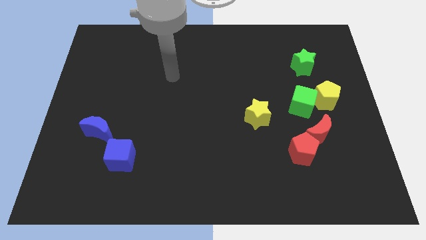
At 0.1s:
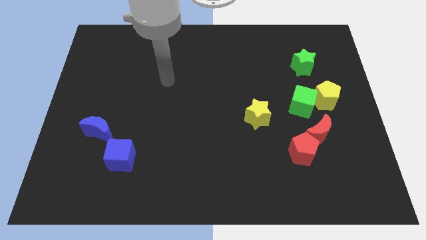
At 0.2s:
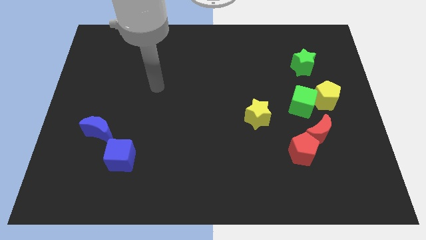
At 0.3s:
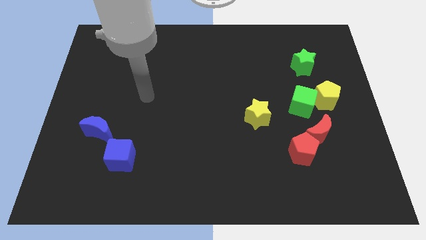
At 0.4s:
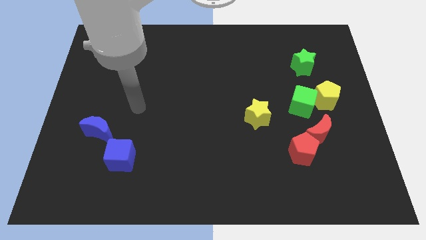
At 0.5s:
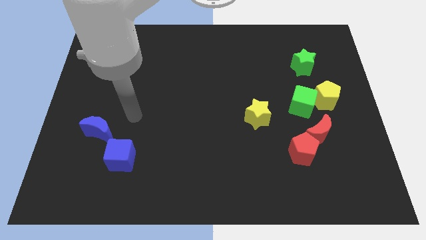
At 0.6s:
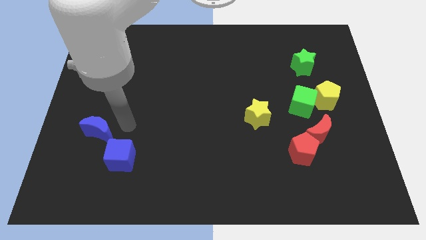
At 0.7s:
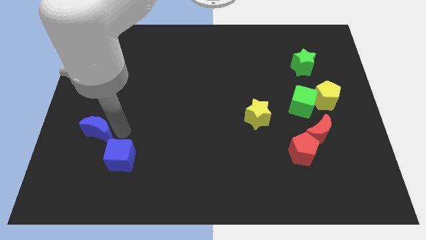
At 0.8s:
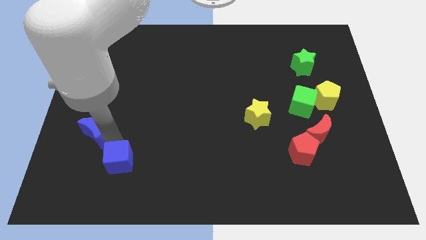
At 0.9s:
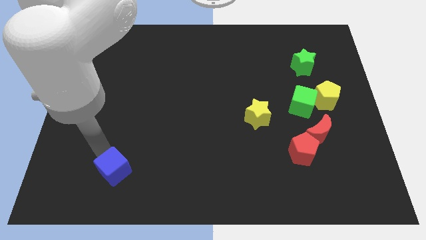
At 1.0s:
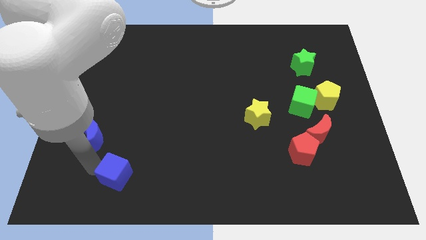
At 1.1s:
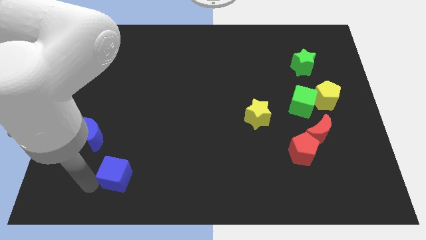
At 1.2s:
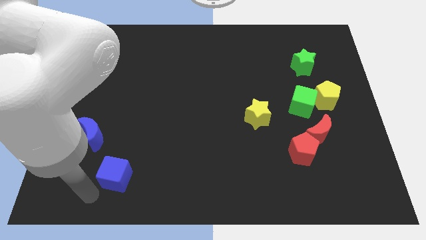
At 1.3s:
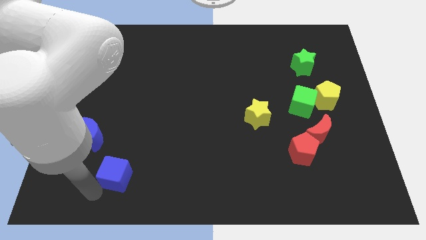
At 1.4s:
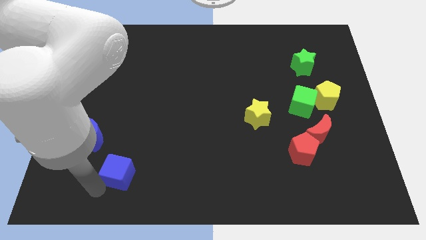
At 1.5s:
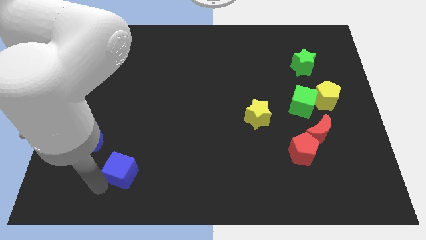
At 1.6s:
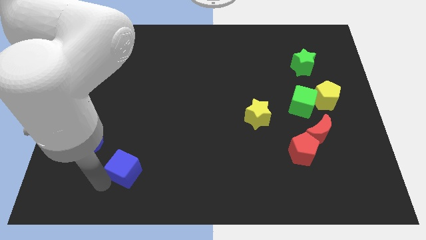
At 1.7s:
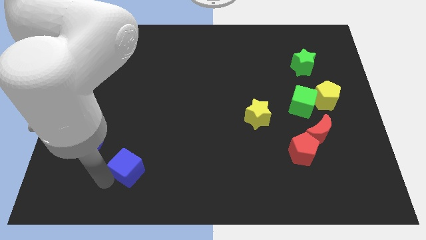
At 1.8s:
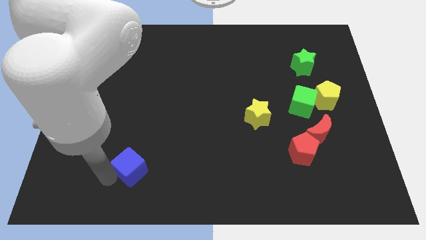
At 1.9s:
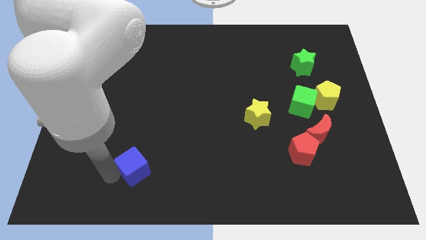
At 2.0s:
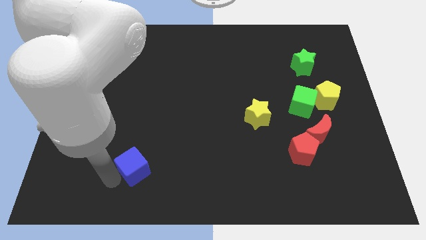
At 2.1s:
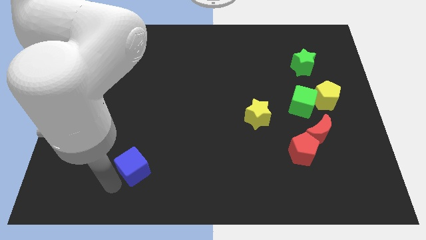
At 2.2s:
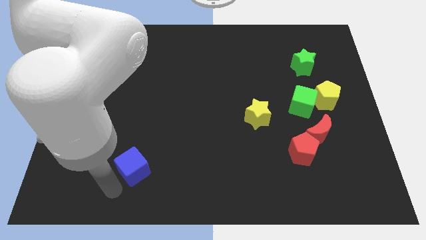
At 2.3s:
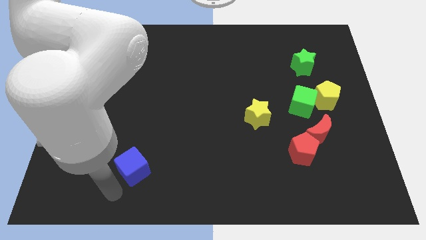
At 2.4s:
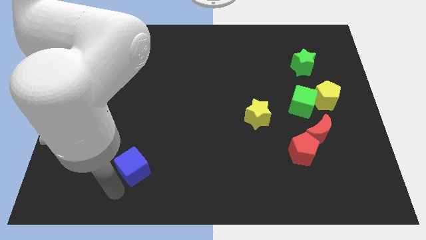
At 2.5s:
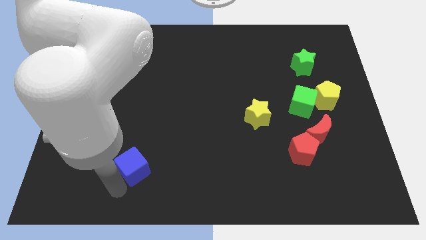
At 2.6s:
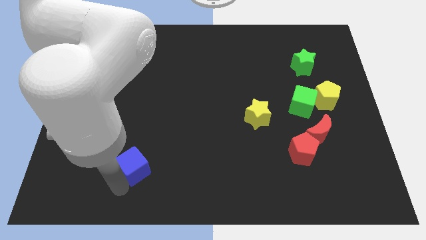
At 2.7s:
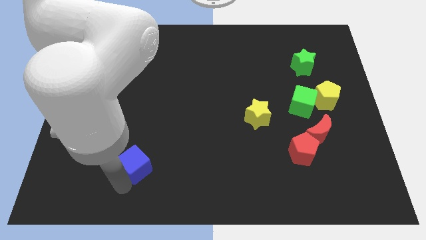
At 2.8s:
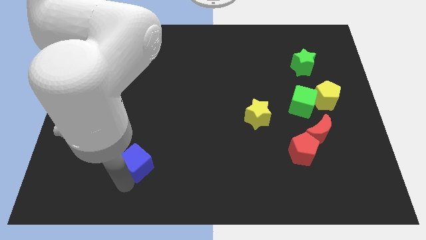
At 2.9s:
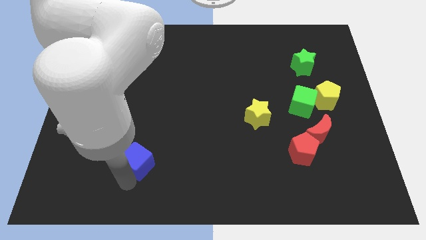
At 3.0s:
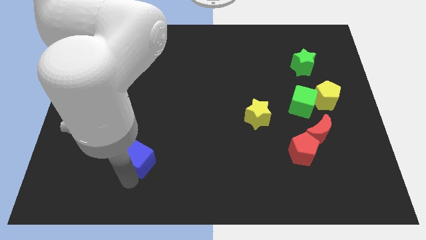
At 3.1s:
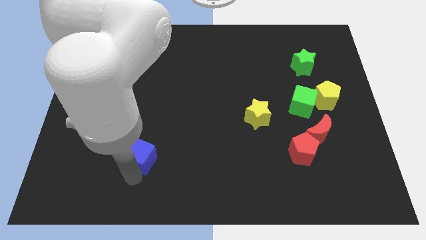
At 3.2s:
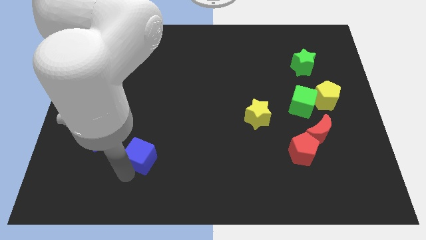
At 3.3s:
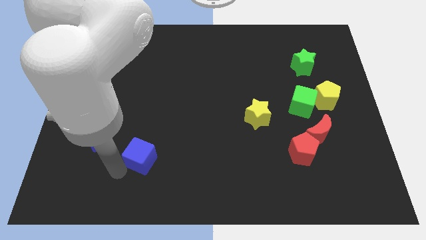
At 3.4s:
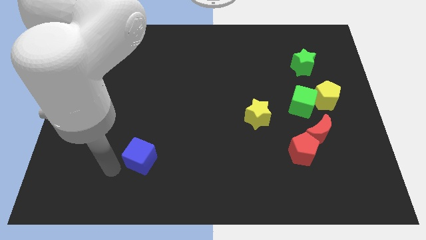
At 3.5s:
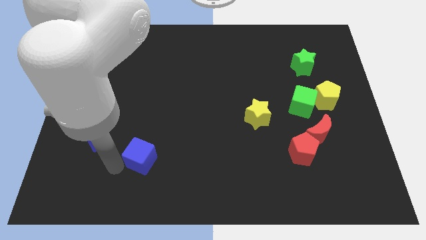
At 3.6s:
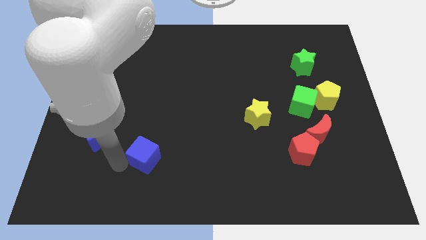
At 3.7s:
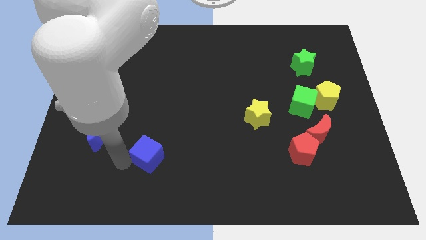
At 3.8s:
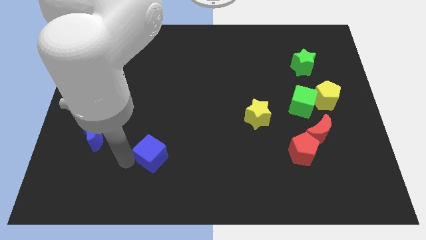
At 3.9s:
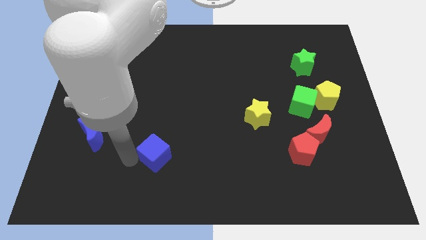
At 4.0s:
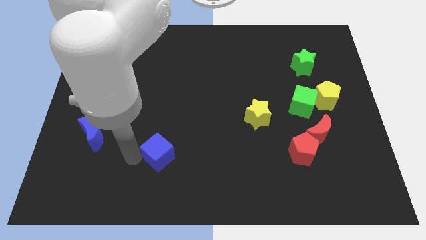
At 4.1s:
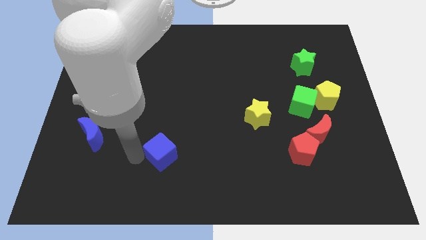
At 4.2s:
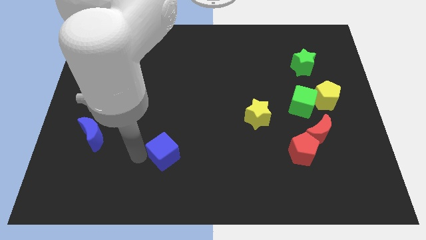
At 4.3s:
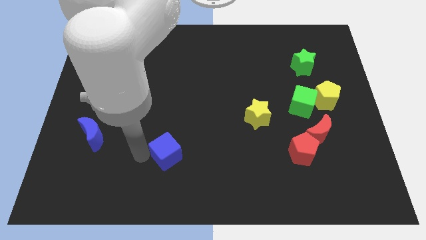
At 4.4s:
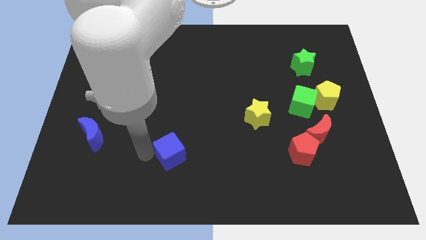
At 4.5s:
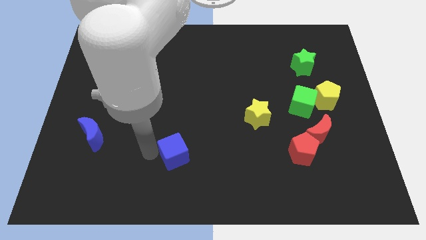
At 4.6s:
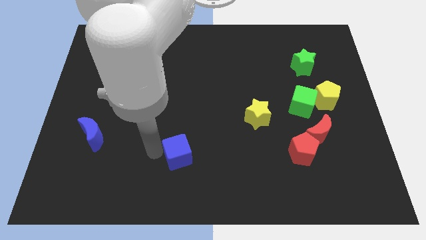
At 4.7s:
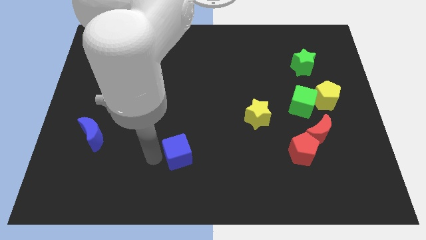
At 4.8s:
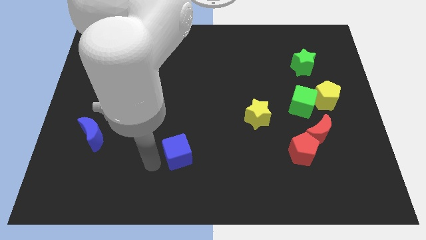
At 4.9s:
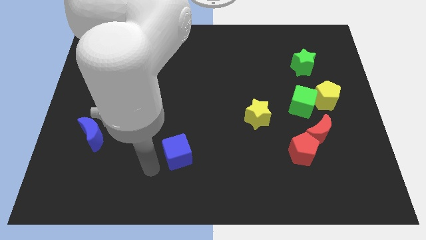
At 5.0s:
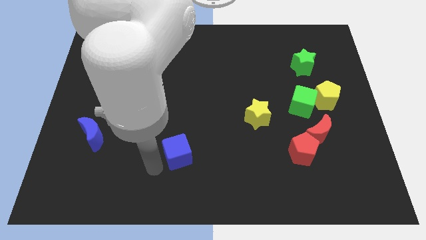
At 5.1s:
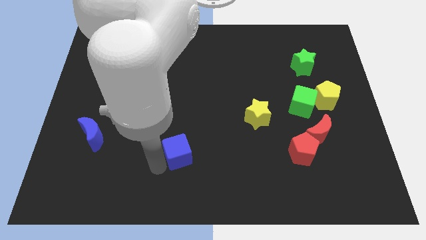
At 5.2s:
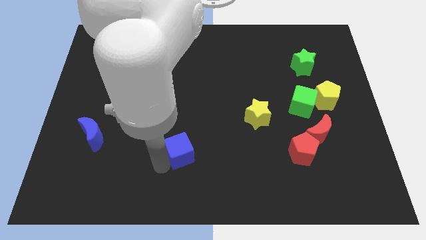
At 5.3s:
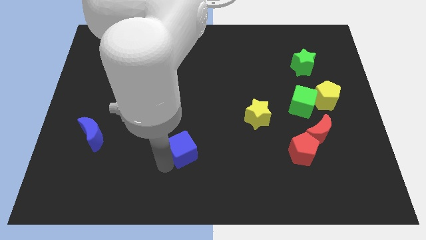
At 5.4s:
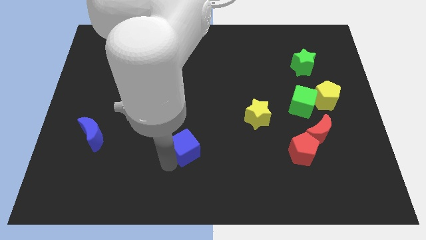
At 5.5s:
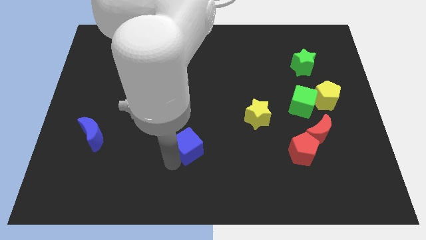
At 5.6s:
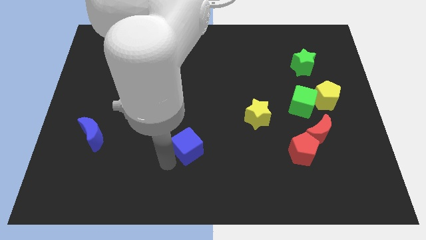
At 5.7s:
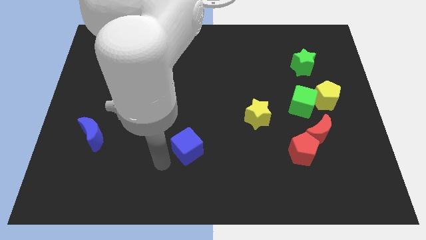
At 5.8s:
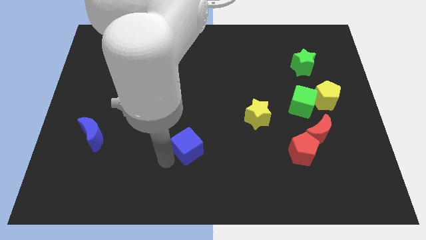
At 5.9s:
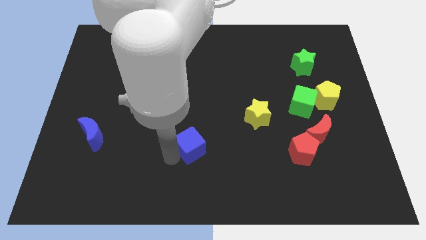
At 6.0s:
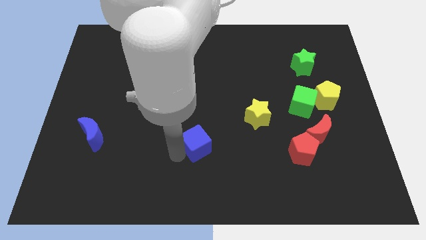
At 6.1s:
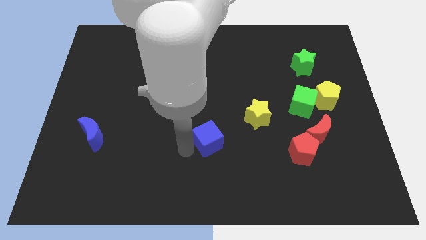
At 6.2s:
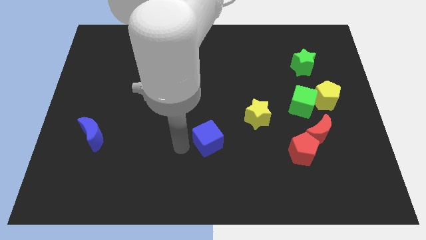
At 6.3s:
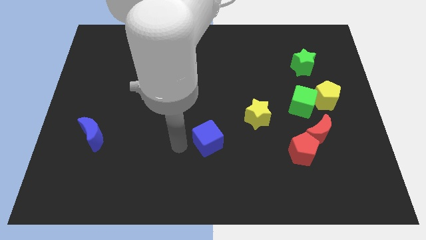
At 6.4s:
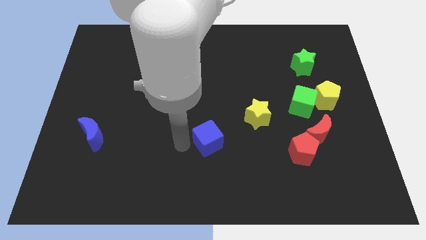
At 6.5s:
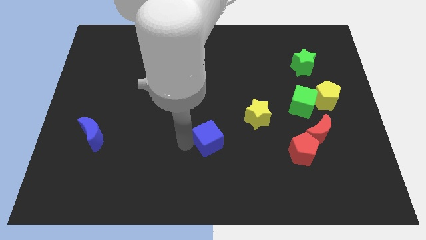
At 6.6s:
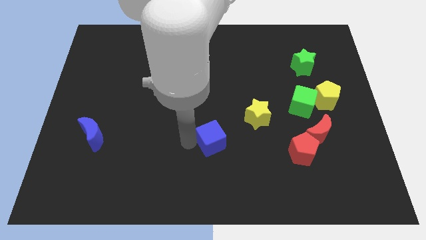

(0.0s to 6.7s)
push the blue cube diagonally down and to the left of the yellow star
